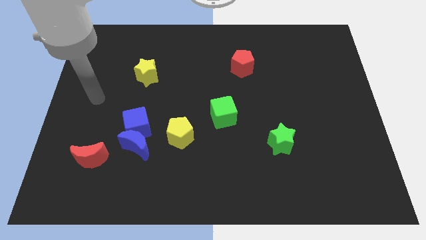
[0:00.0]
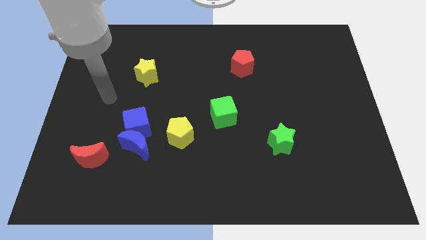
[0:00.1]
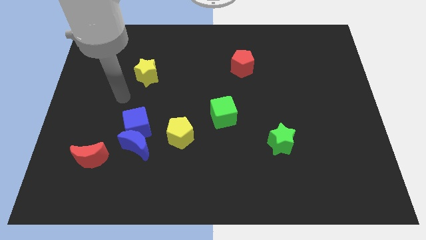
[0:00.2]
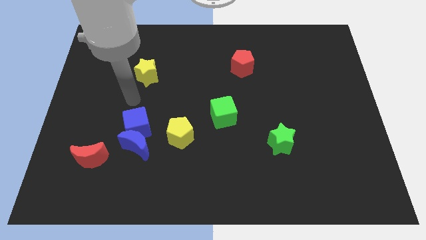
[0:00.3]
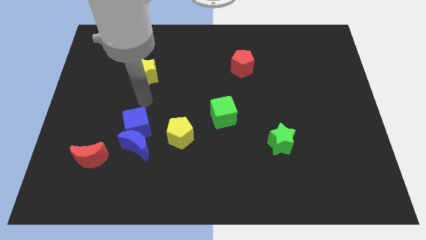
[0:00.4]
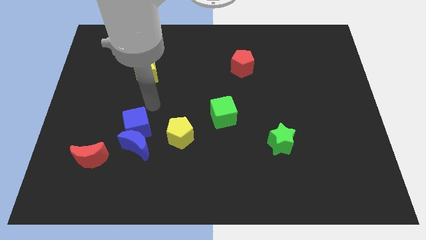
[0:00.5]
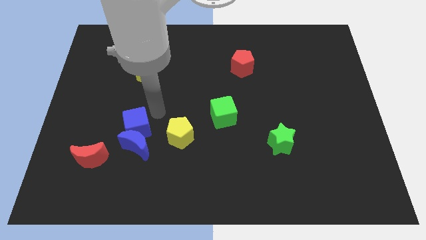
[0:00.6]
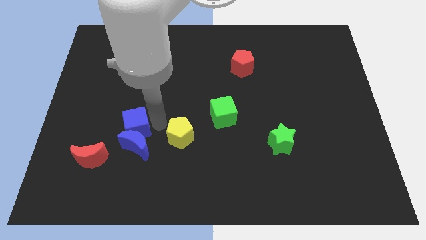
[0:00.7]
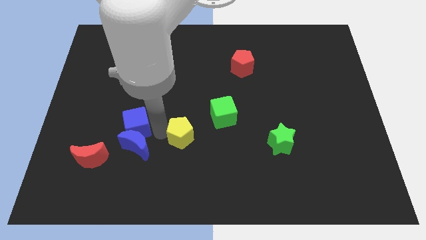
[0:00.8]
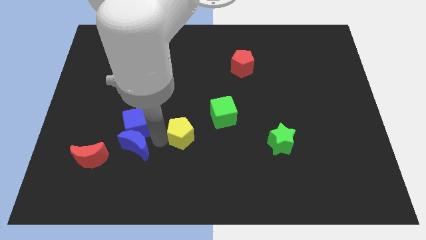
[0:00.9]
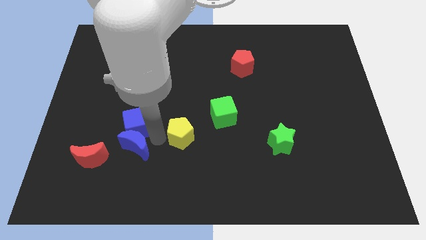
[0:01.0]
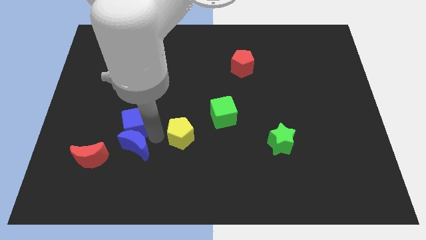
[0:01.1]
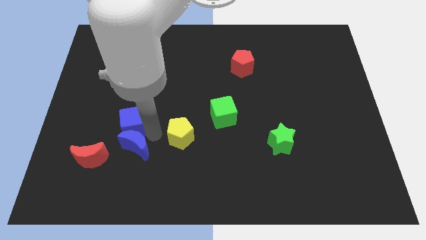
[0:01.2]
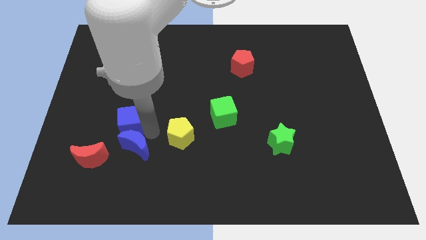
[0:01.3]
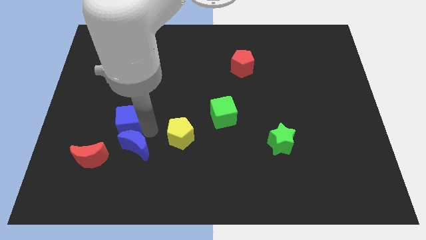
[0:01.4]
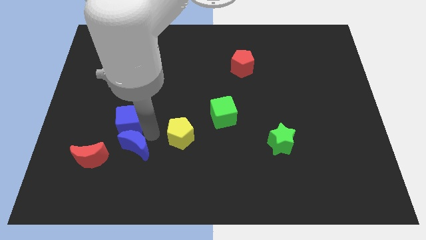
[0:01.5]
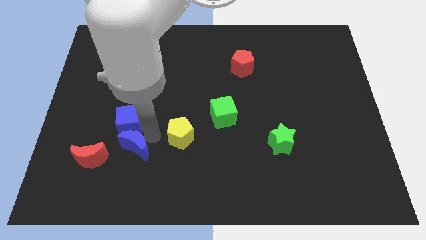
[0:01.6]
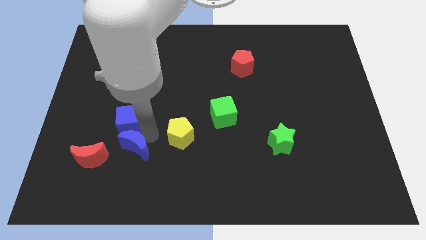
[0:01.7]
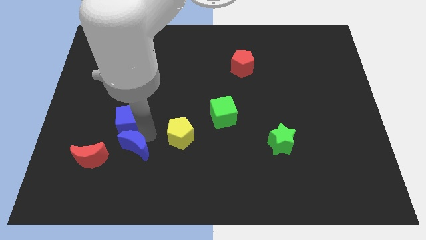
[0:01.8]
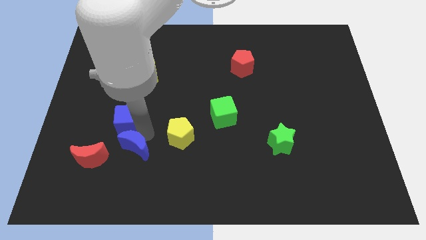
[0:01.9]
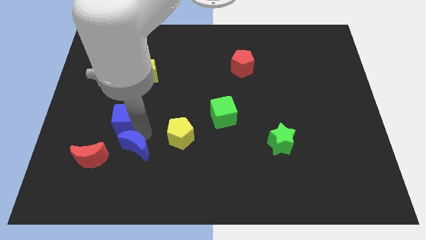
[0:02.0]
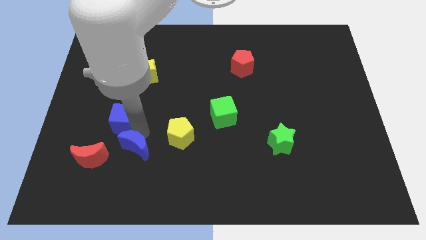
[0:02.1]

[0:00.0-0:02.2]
move the blue cube away from the blue moon and yellow pentagon

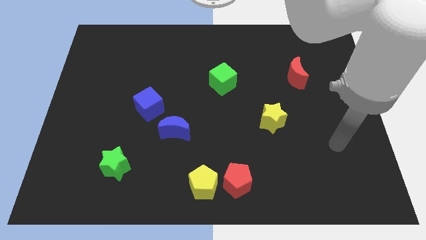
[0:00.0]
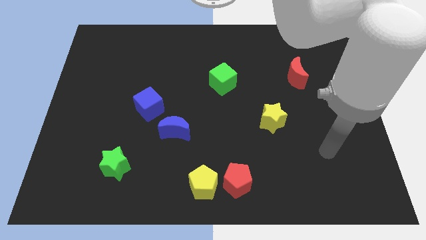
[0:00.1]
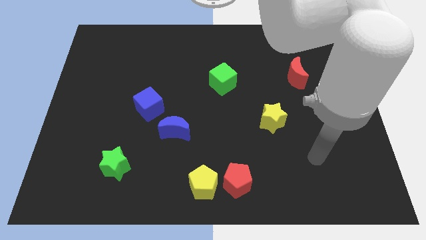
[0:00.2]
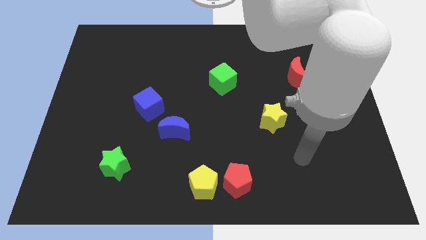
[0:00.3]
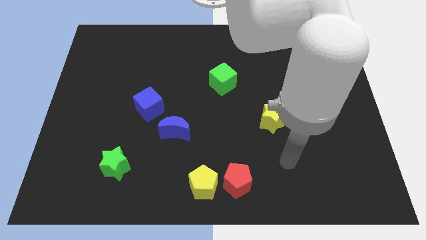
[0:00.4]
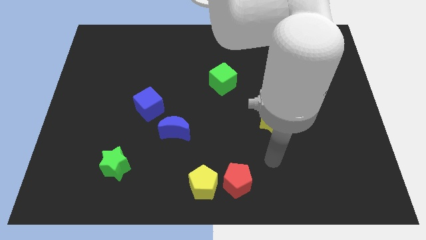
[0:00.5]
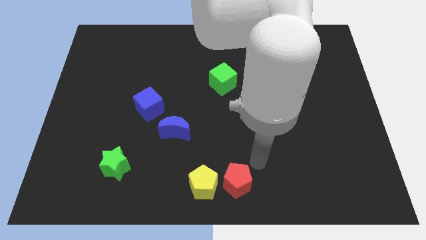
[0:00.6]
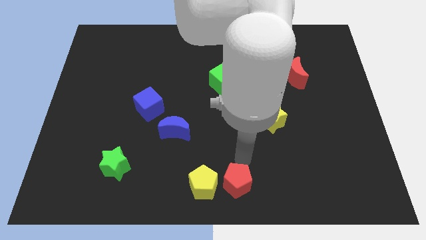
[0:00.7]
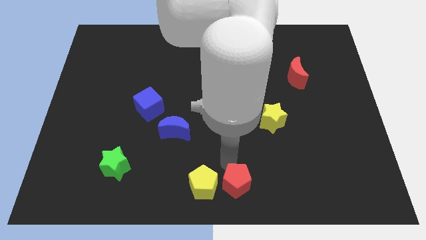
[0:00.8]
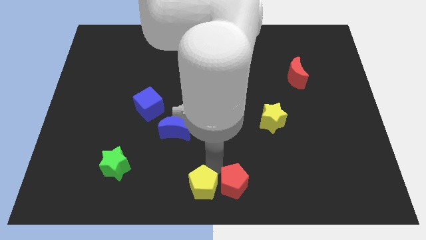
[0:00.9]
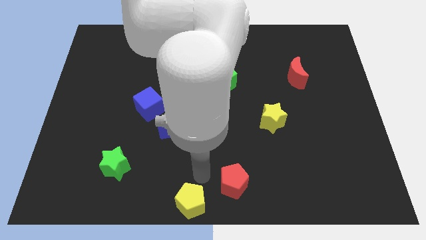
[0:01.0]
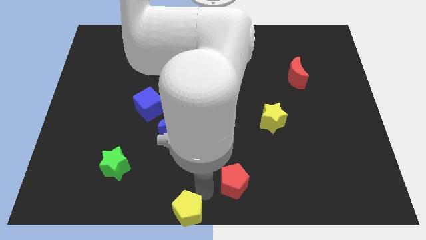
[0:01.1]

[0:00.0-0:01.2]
pull the red pentagon apart from the yellow pentagon

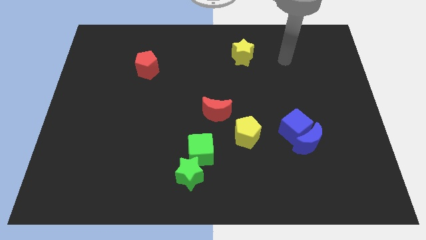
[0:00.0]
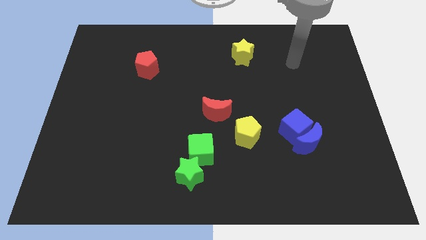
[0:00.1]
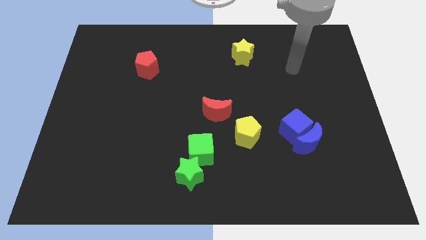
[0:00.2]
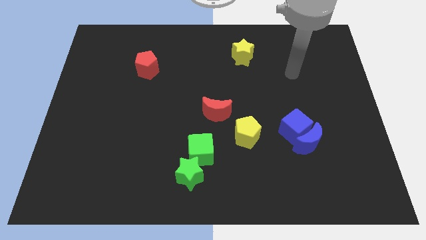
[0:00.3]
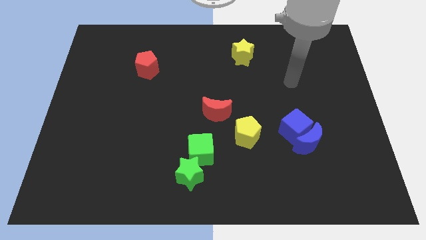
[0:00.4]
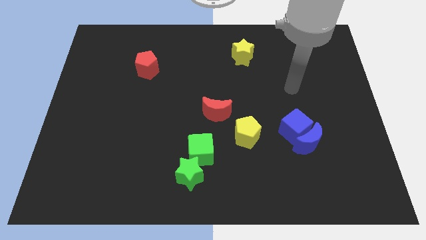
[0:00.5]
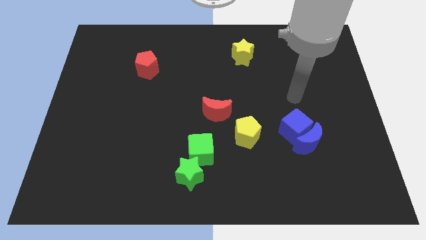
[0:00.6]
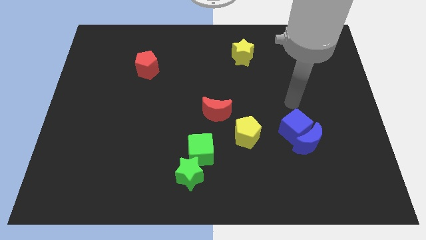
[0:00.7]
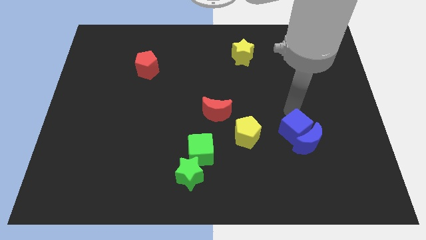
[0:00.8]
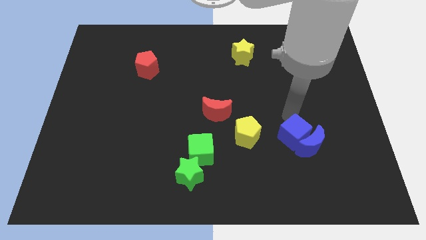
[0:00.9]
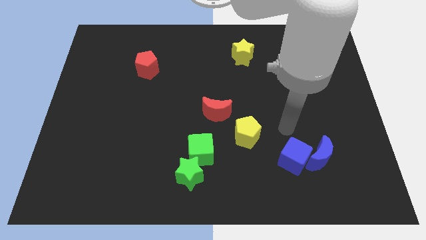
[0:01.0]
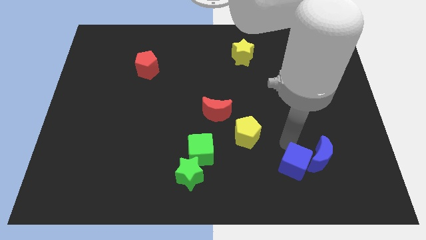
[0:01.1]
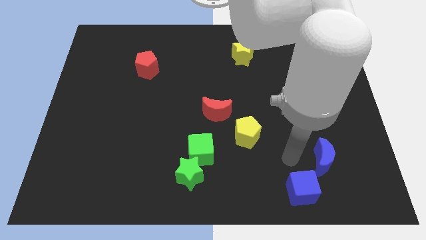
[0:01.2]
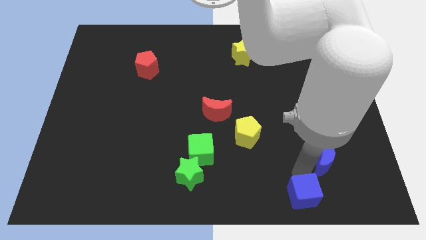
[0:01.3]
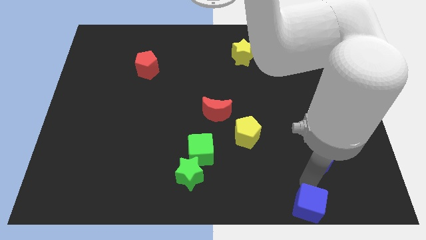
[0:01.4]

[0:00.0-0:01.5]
pull the blue moon apart from the blue cube

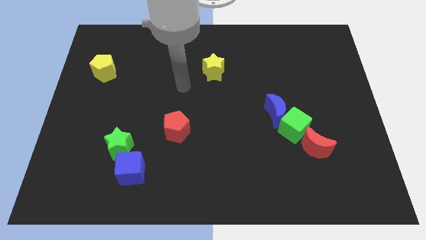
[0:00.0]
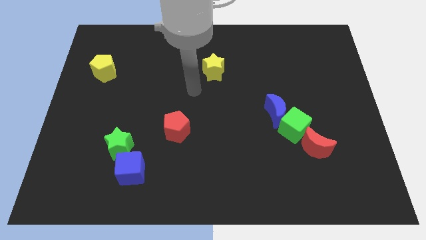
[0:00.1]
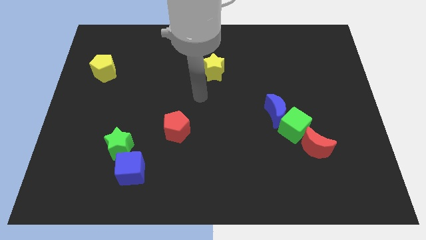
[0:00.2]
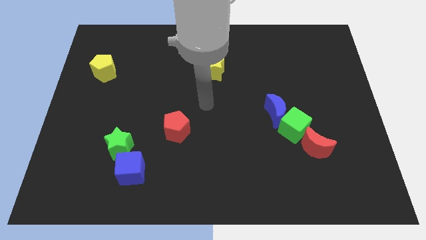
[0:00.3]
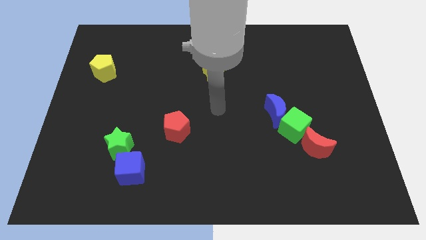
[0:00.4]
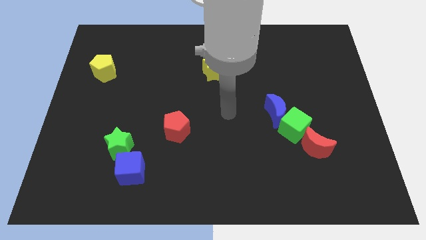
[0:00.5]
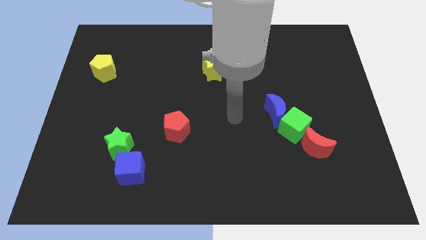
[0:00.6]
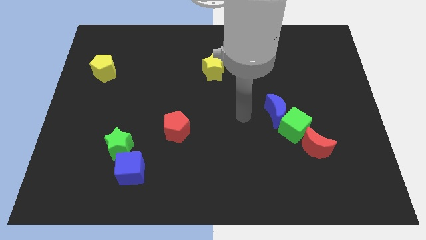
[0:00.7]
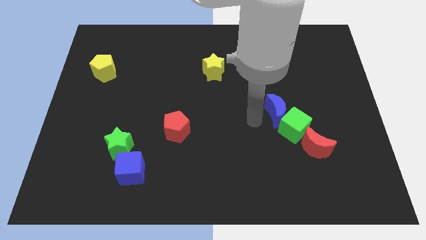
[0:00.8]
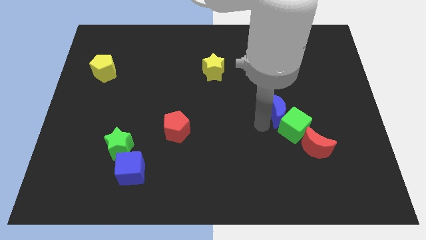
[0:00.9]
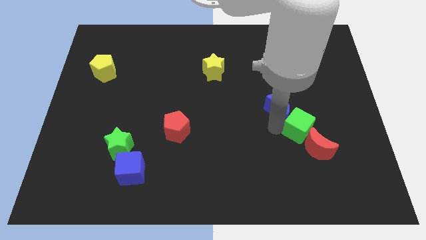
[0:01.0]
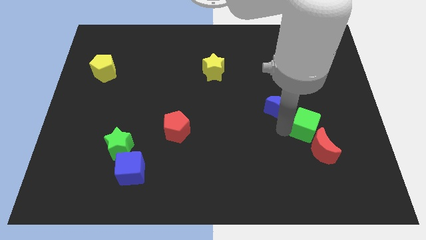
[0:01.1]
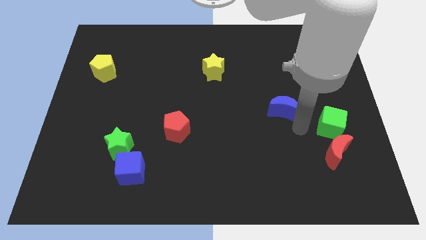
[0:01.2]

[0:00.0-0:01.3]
pull the blue moon apart from the green cube

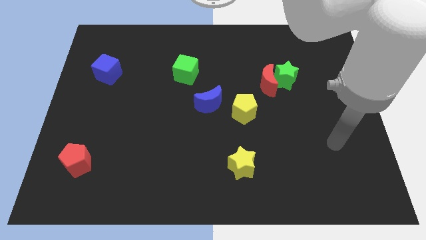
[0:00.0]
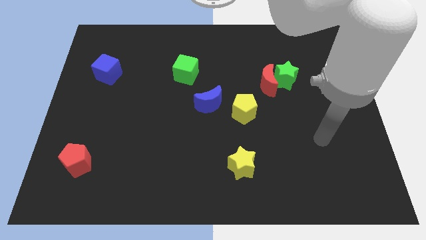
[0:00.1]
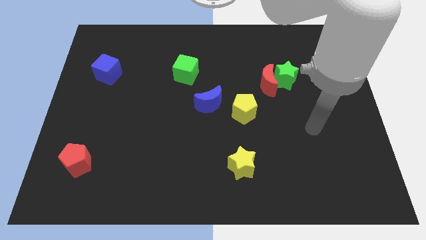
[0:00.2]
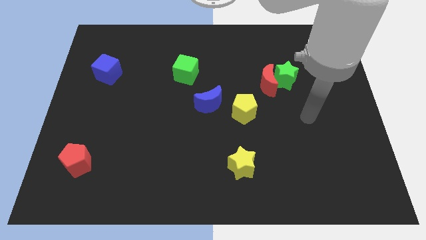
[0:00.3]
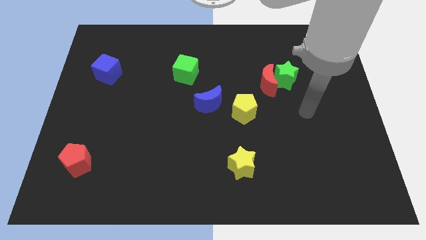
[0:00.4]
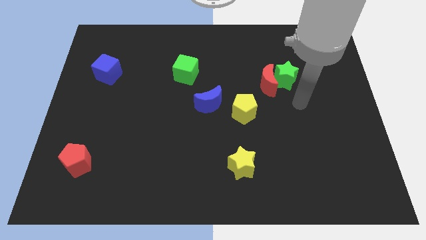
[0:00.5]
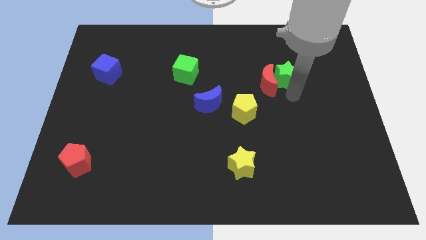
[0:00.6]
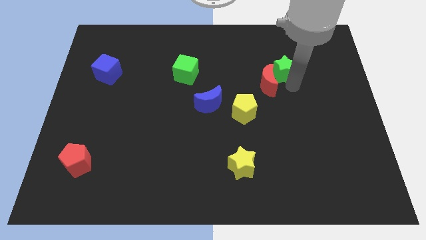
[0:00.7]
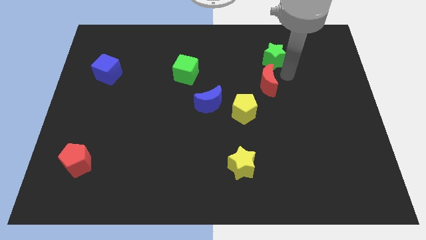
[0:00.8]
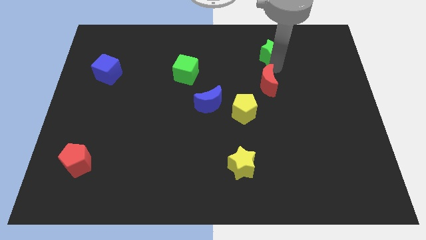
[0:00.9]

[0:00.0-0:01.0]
move the red moon away from the green star

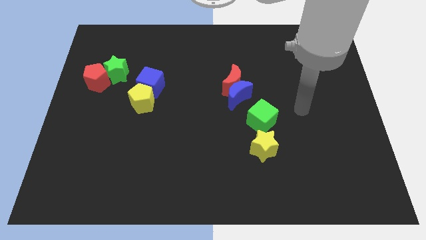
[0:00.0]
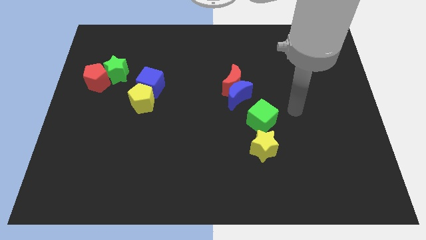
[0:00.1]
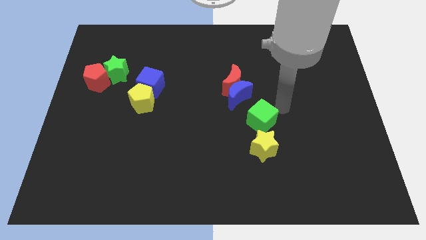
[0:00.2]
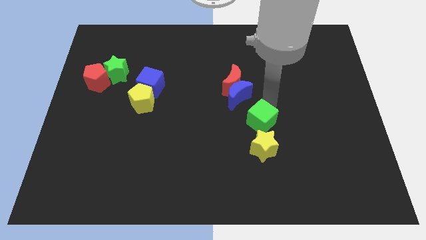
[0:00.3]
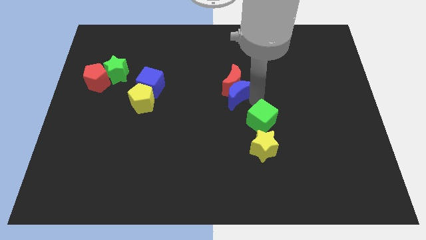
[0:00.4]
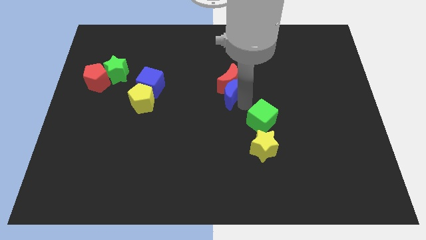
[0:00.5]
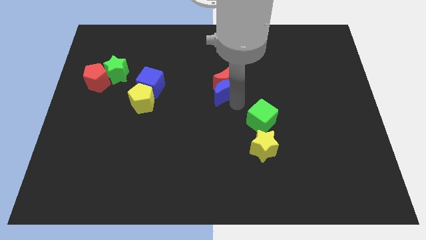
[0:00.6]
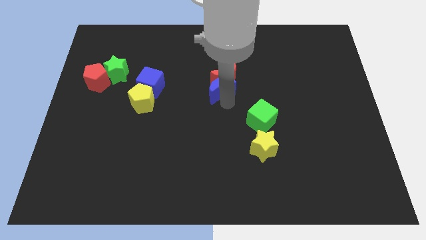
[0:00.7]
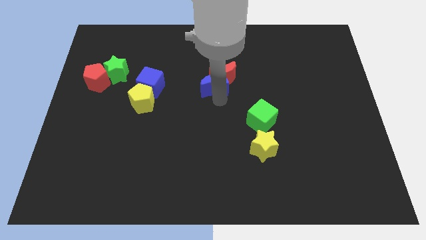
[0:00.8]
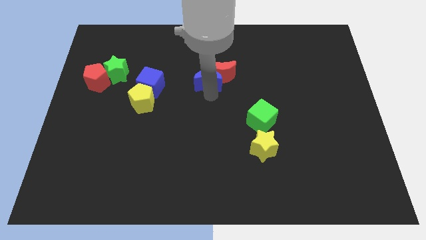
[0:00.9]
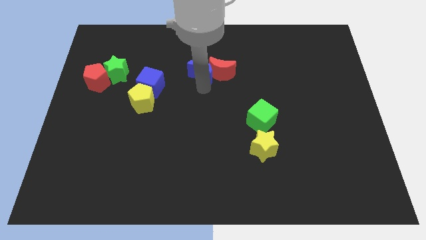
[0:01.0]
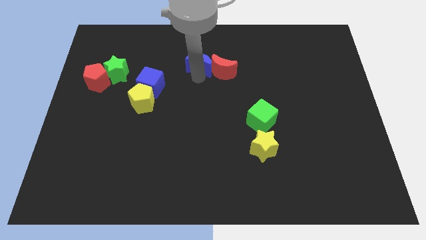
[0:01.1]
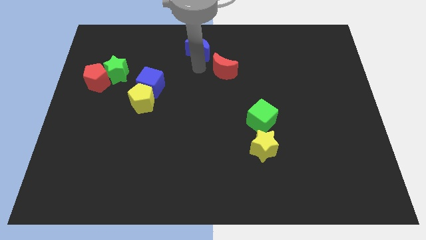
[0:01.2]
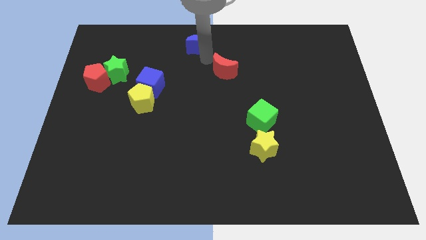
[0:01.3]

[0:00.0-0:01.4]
separate the red moon from the blue moon

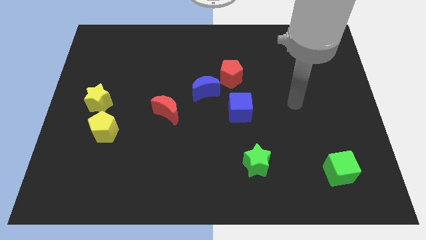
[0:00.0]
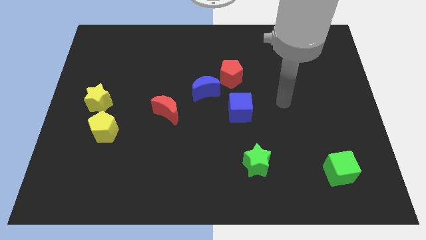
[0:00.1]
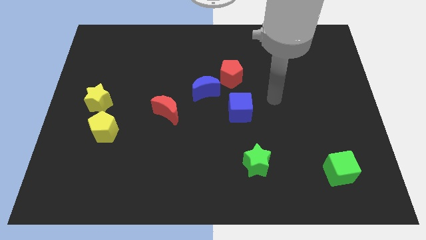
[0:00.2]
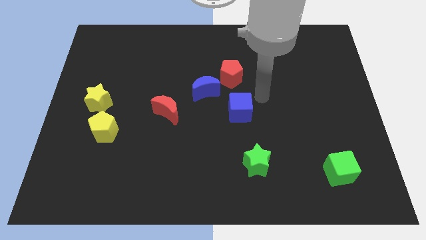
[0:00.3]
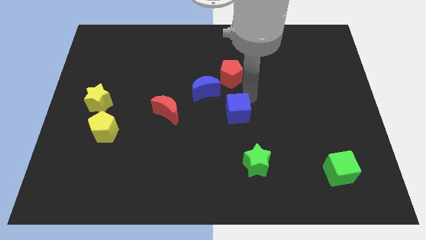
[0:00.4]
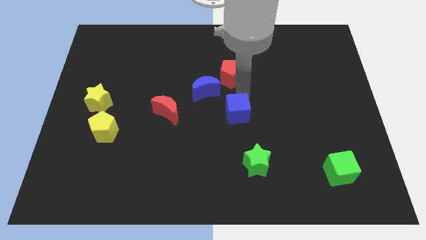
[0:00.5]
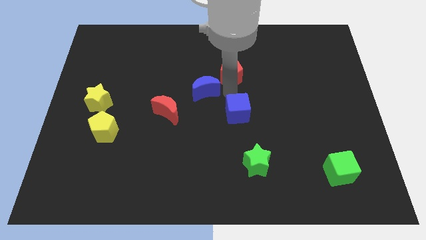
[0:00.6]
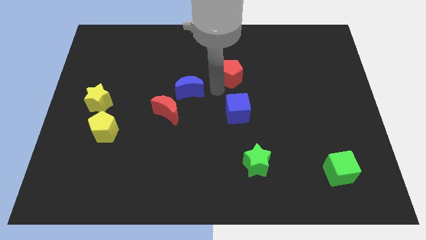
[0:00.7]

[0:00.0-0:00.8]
pull the red pentagon apart from the blue moon
